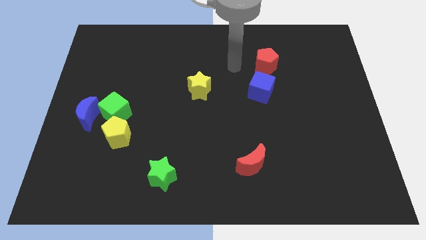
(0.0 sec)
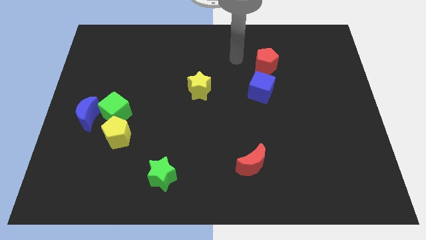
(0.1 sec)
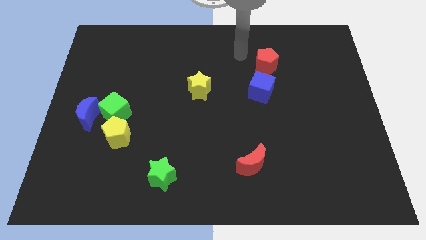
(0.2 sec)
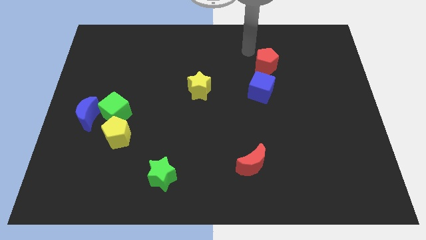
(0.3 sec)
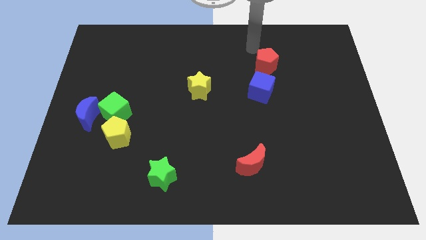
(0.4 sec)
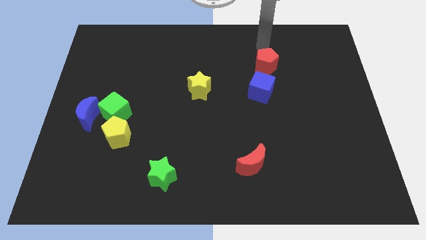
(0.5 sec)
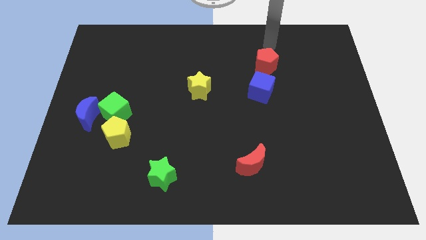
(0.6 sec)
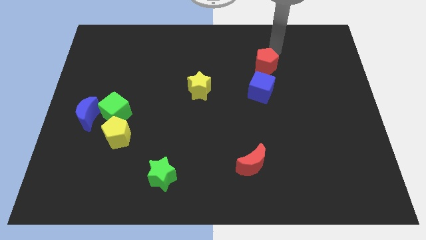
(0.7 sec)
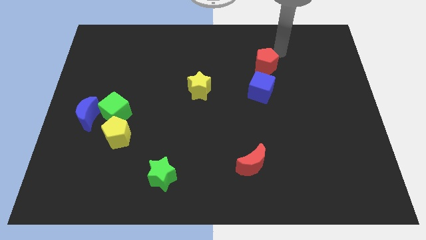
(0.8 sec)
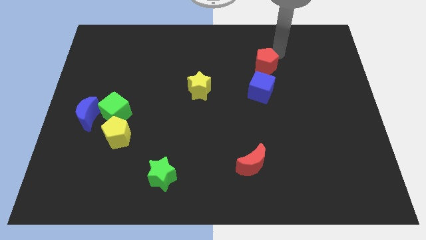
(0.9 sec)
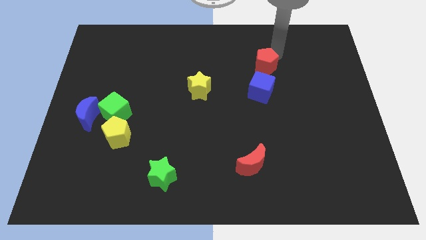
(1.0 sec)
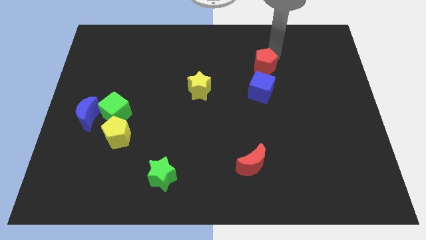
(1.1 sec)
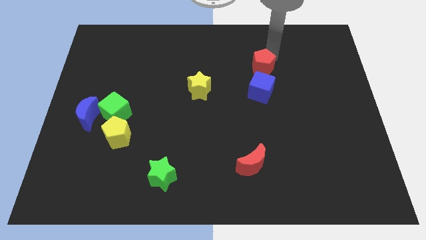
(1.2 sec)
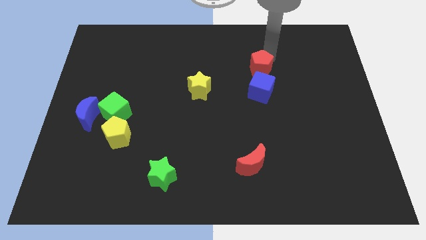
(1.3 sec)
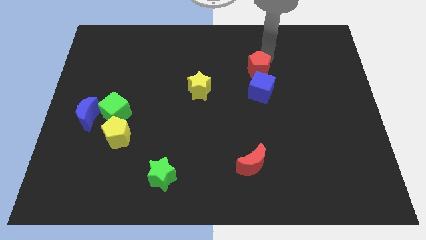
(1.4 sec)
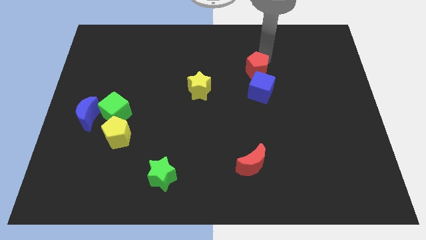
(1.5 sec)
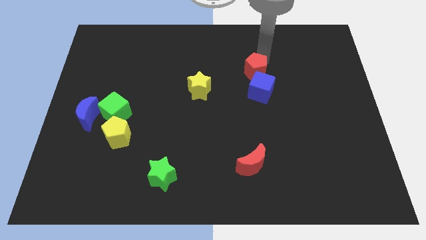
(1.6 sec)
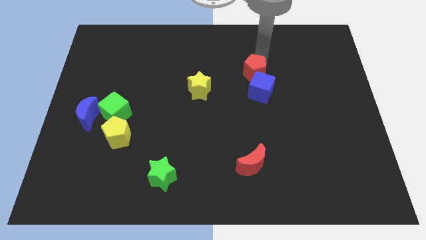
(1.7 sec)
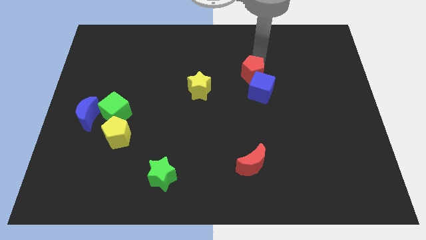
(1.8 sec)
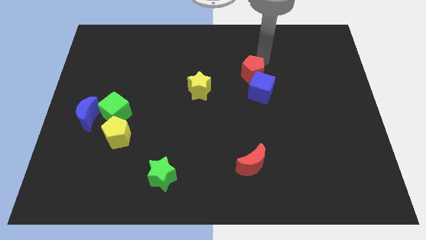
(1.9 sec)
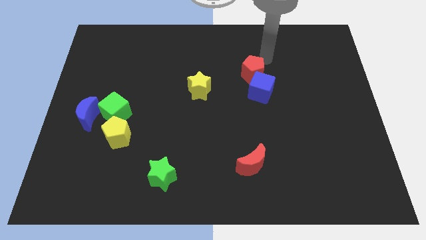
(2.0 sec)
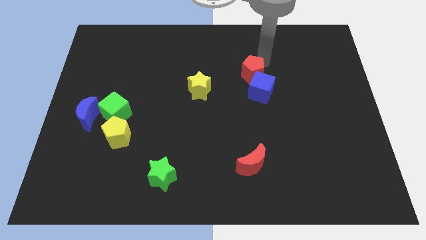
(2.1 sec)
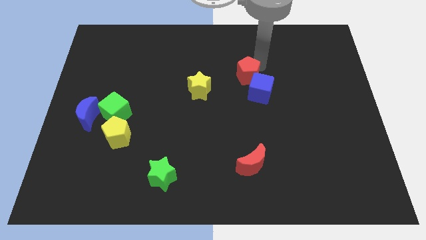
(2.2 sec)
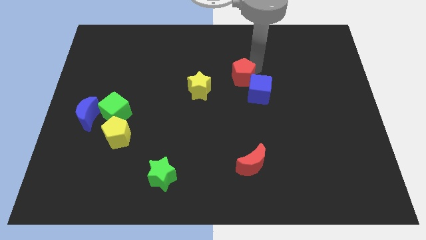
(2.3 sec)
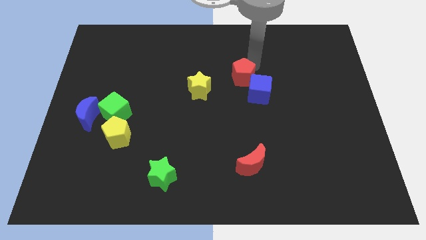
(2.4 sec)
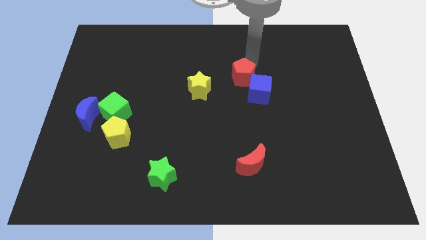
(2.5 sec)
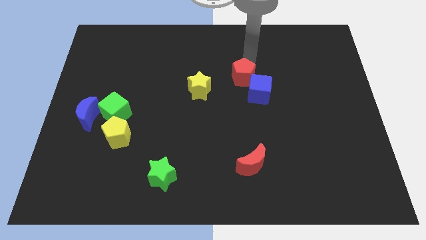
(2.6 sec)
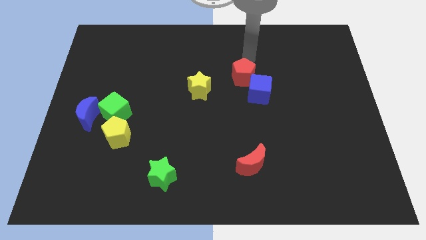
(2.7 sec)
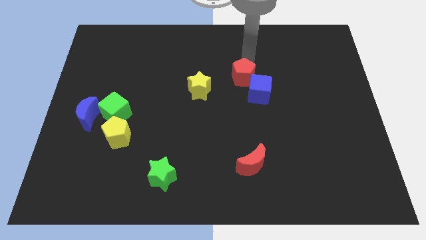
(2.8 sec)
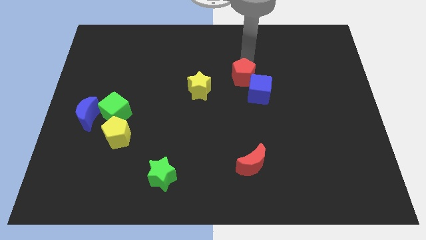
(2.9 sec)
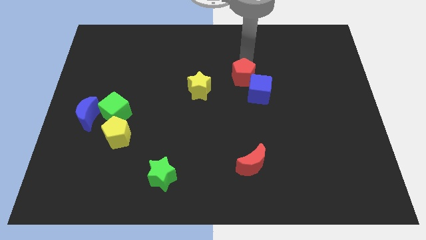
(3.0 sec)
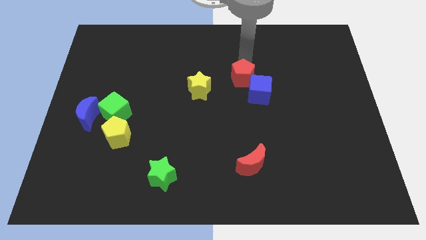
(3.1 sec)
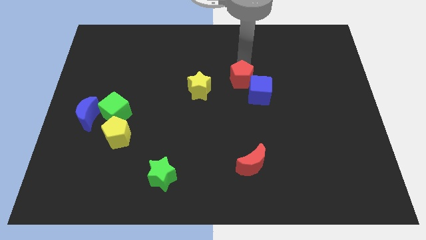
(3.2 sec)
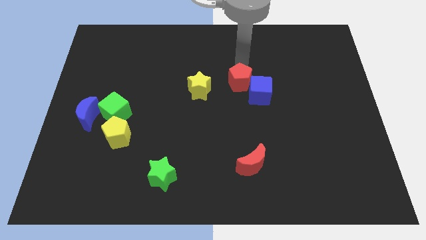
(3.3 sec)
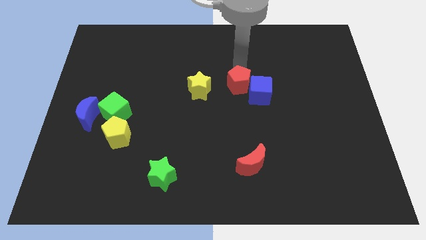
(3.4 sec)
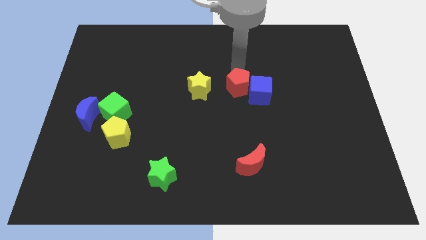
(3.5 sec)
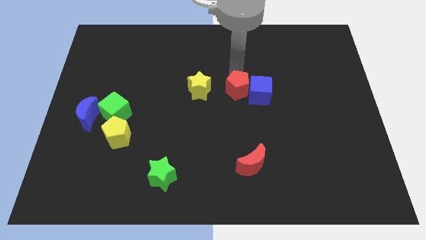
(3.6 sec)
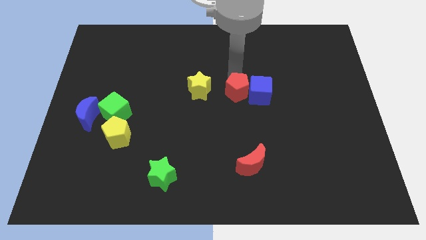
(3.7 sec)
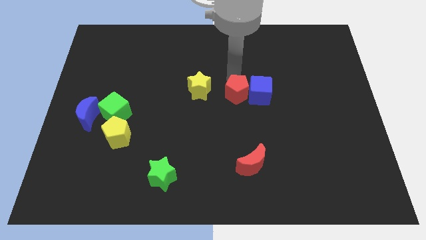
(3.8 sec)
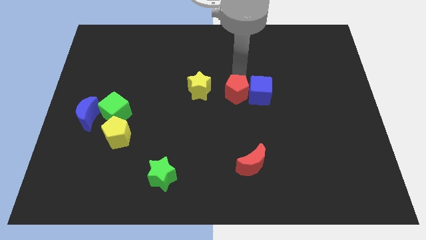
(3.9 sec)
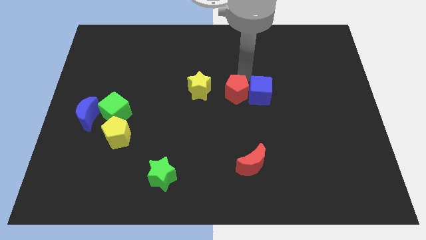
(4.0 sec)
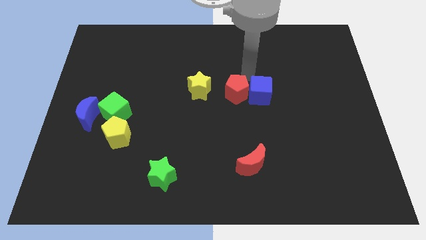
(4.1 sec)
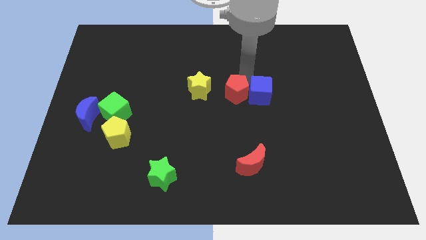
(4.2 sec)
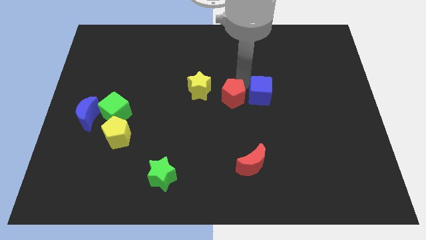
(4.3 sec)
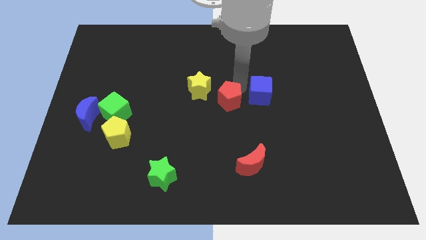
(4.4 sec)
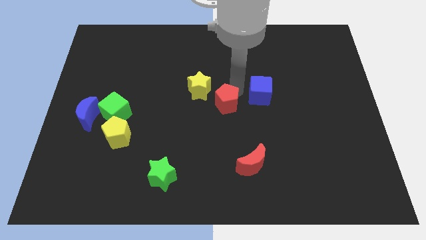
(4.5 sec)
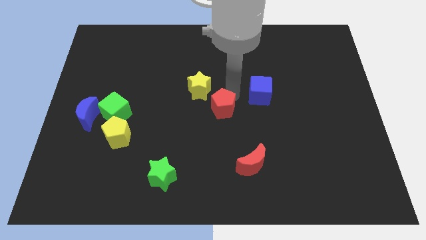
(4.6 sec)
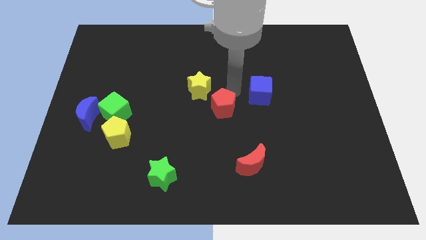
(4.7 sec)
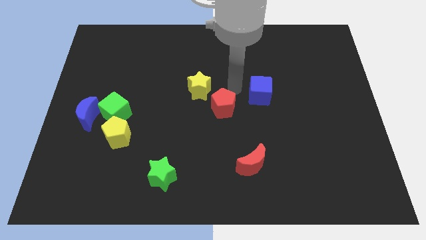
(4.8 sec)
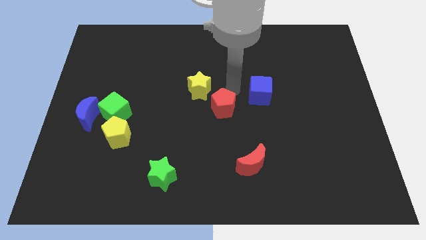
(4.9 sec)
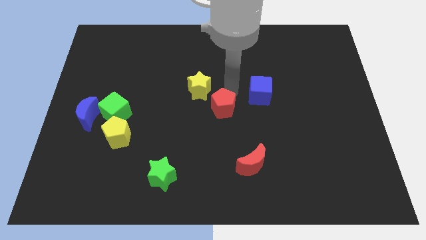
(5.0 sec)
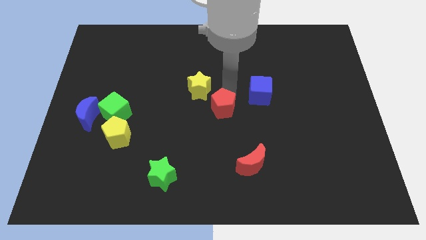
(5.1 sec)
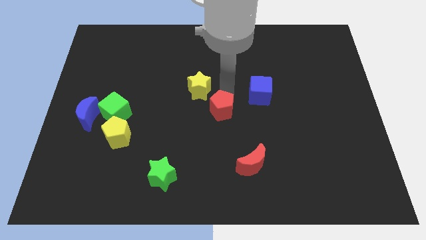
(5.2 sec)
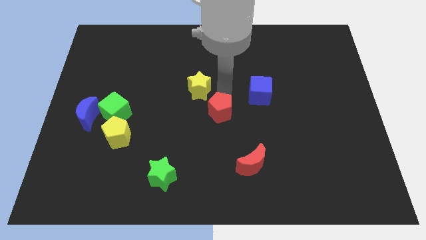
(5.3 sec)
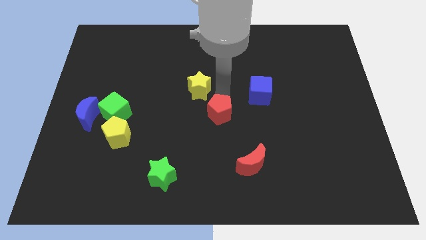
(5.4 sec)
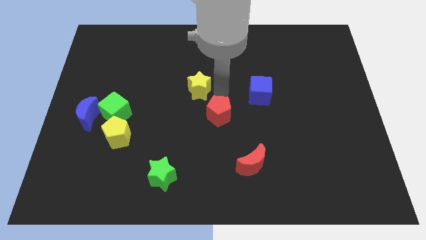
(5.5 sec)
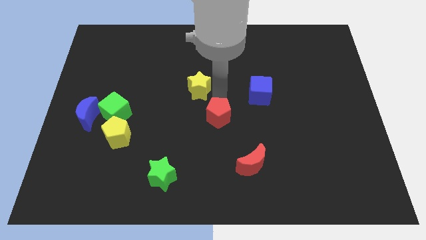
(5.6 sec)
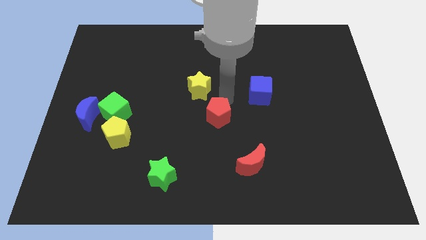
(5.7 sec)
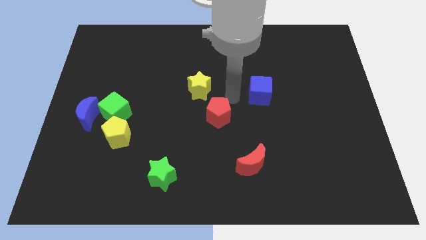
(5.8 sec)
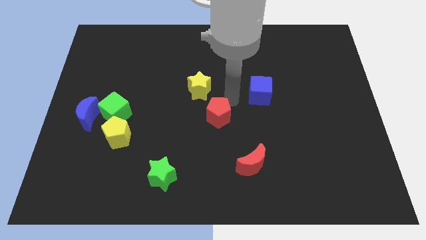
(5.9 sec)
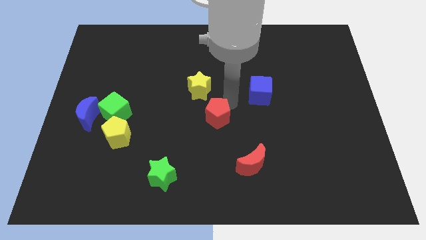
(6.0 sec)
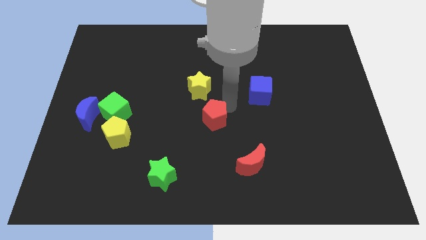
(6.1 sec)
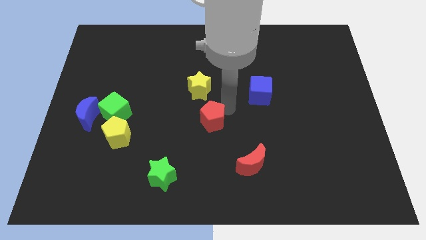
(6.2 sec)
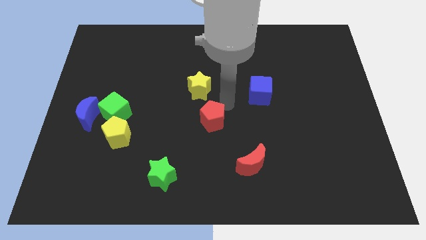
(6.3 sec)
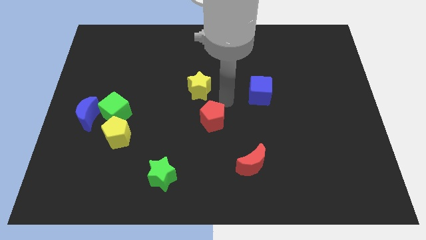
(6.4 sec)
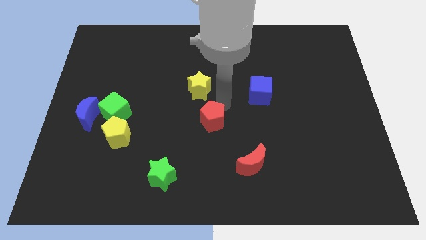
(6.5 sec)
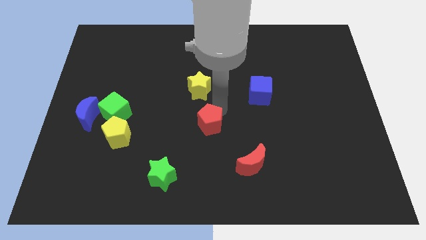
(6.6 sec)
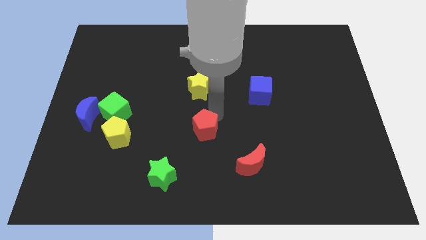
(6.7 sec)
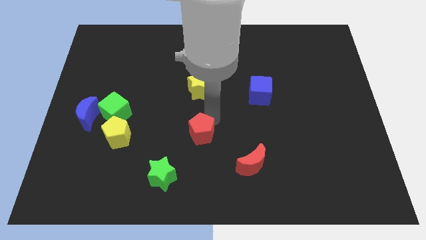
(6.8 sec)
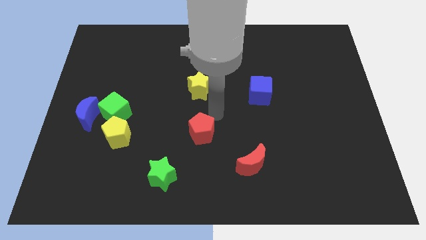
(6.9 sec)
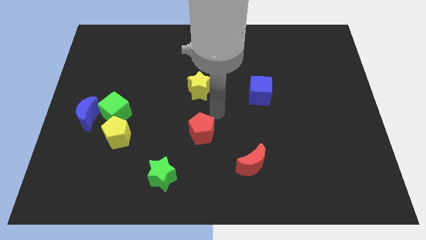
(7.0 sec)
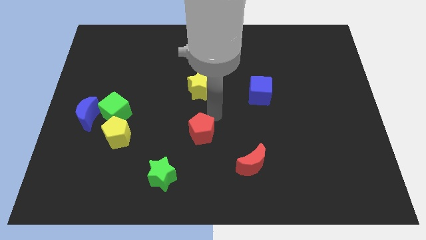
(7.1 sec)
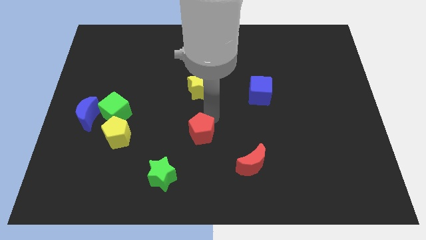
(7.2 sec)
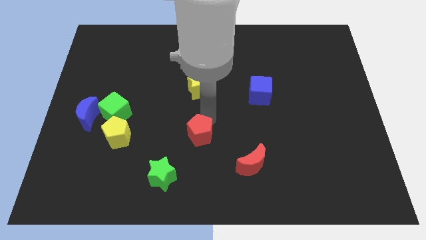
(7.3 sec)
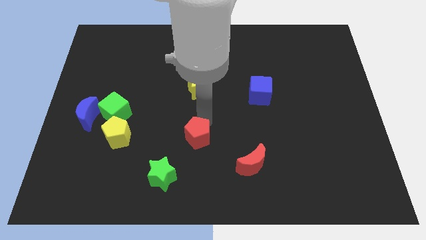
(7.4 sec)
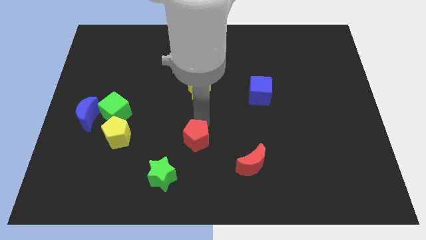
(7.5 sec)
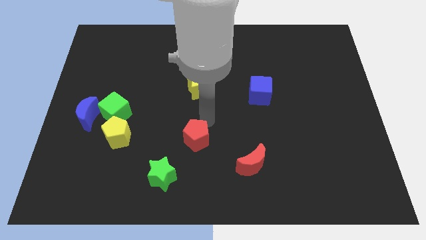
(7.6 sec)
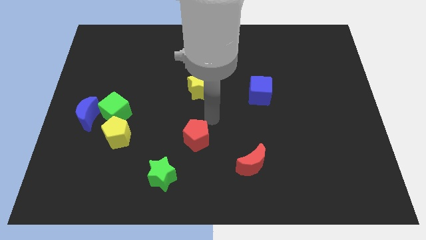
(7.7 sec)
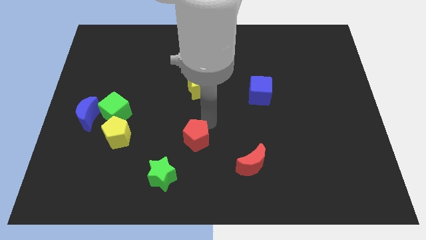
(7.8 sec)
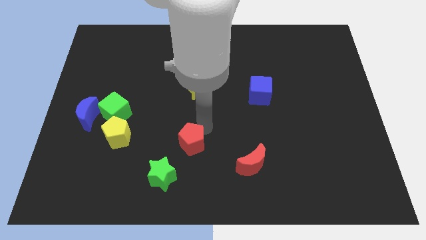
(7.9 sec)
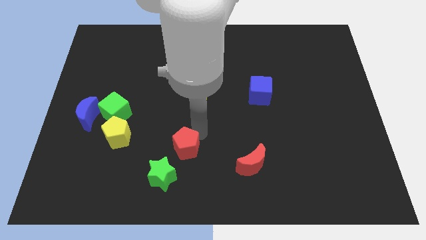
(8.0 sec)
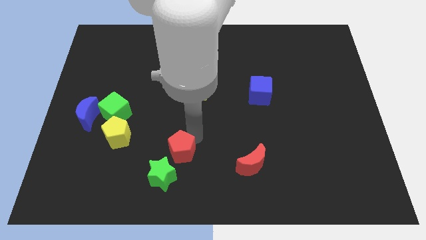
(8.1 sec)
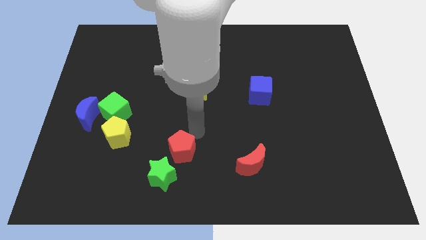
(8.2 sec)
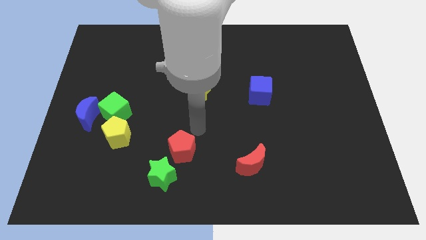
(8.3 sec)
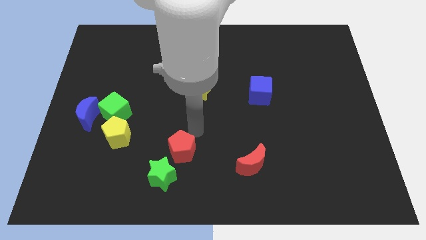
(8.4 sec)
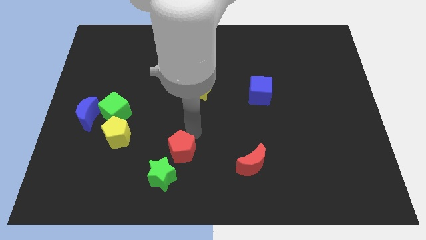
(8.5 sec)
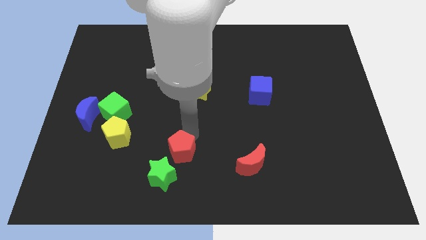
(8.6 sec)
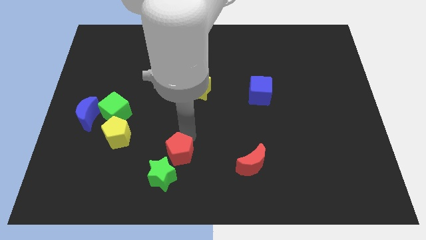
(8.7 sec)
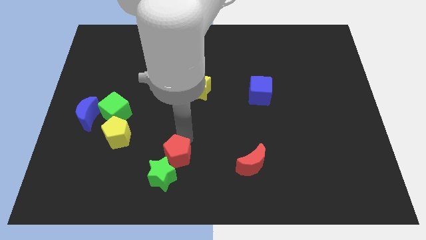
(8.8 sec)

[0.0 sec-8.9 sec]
put the red pentagon to the green star
